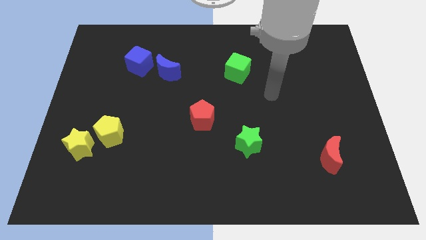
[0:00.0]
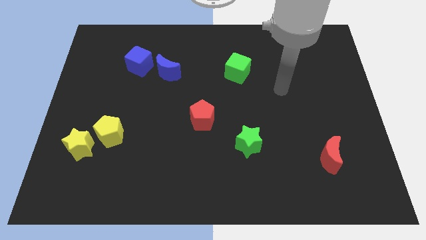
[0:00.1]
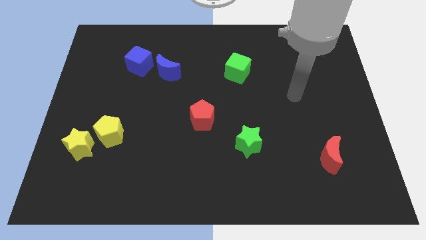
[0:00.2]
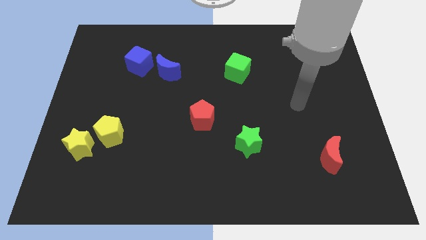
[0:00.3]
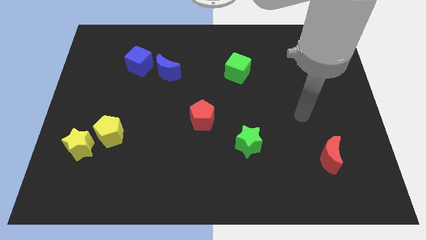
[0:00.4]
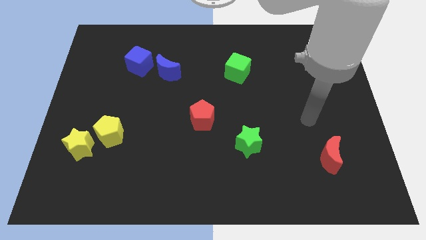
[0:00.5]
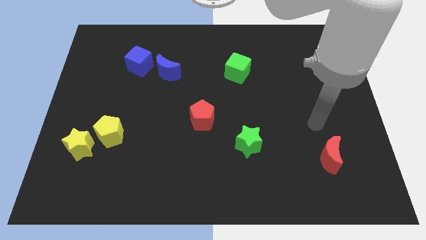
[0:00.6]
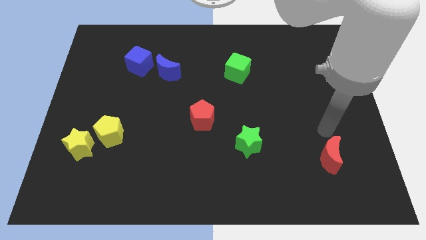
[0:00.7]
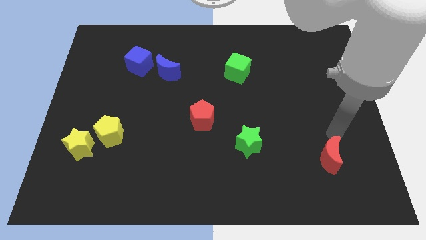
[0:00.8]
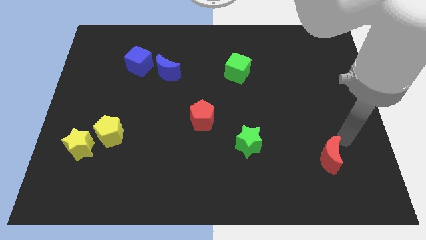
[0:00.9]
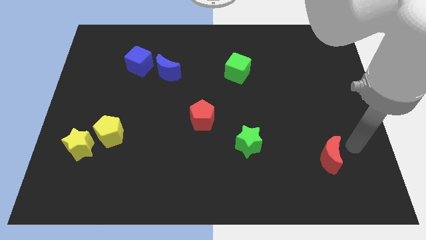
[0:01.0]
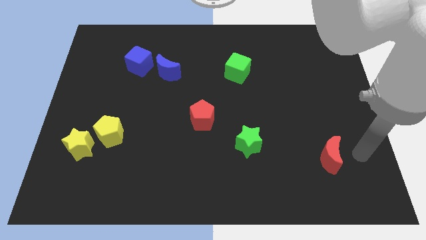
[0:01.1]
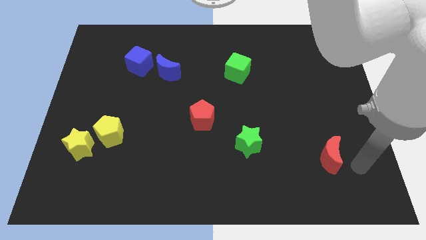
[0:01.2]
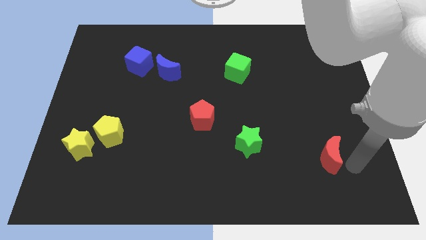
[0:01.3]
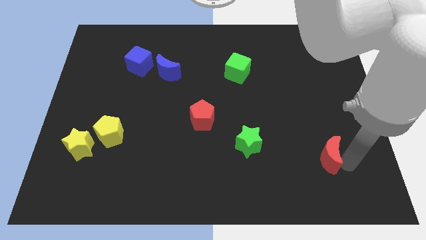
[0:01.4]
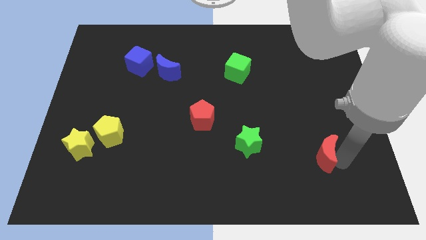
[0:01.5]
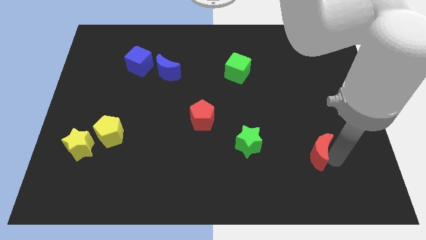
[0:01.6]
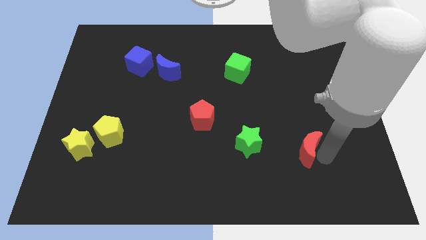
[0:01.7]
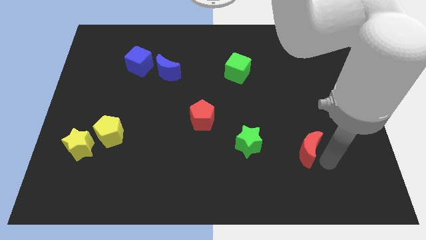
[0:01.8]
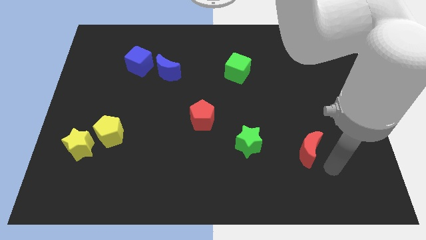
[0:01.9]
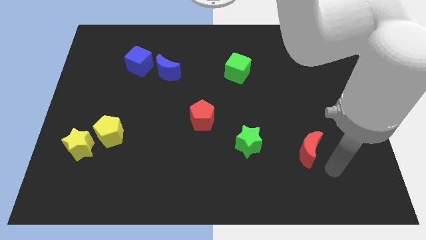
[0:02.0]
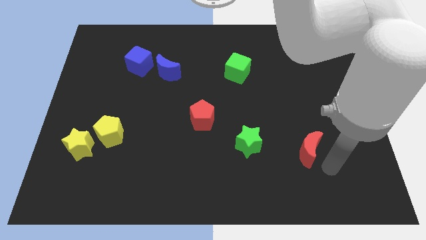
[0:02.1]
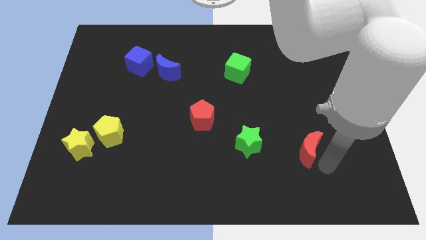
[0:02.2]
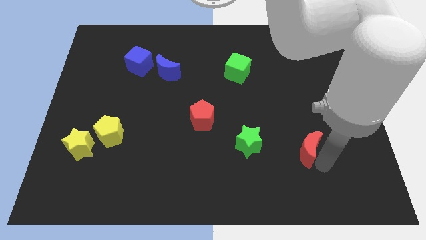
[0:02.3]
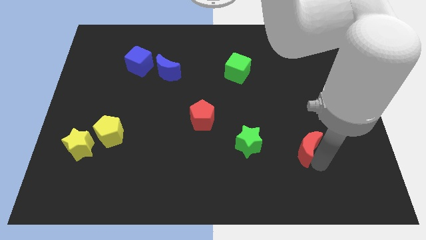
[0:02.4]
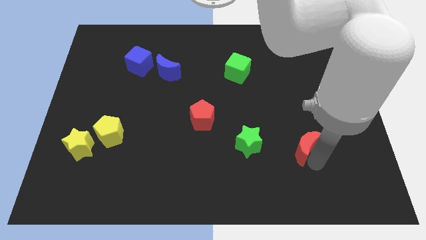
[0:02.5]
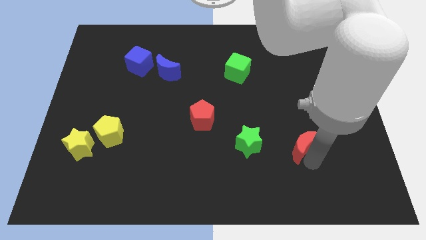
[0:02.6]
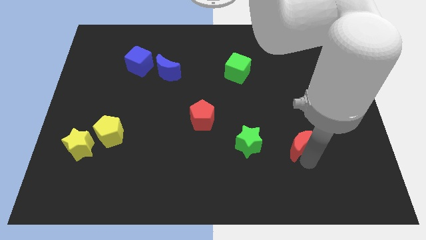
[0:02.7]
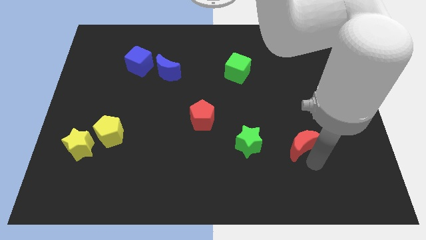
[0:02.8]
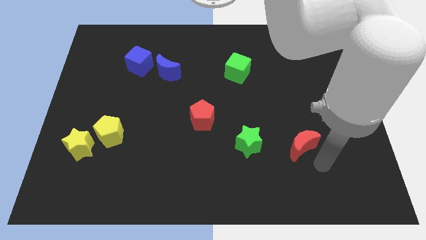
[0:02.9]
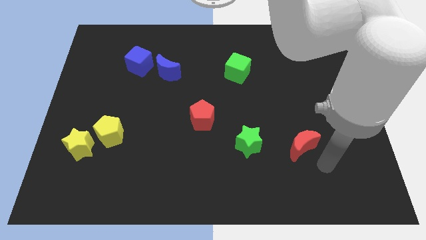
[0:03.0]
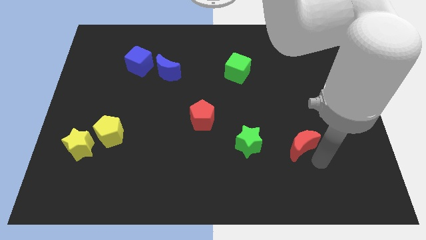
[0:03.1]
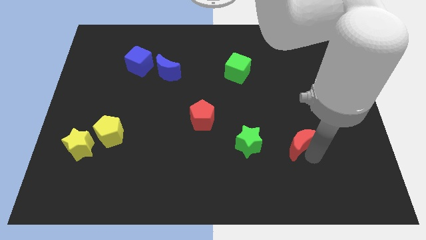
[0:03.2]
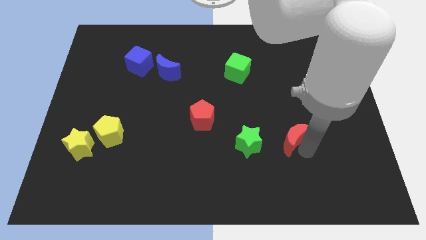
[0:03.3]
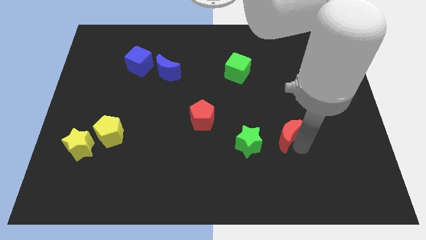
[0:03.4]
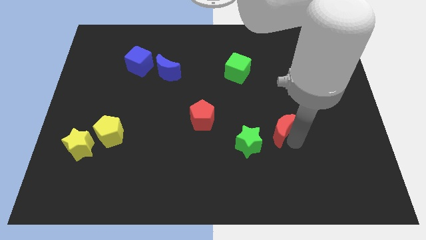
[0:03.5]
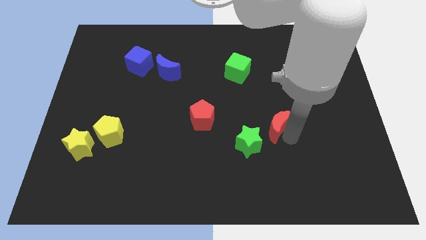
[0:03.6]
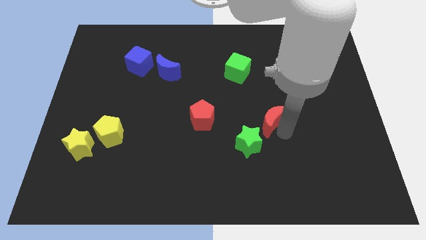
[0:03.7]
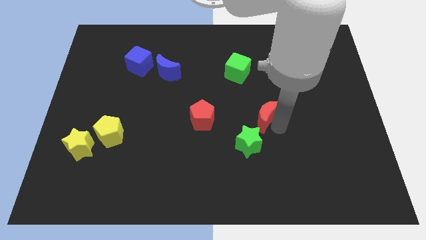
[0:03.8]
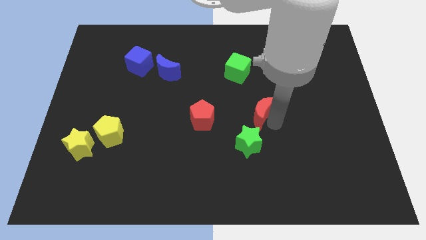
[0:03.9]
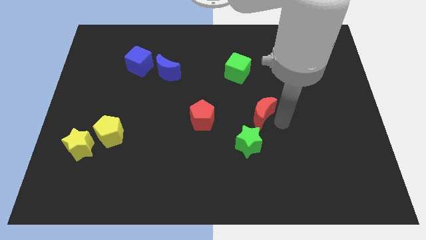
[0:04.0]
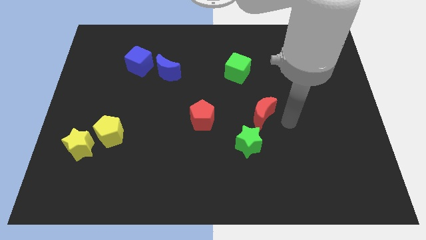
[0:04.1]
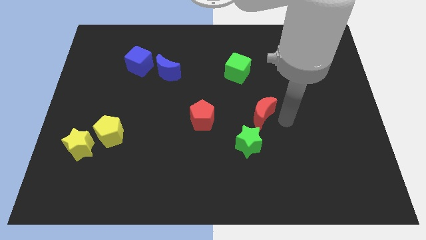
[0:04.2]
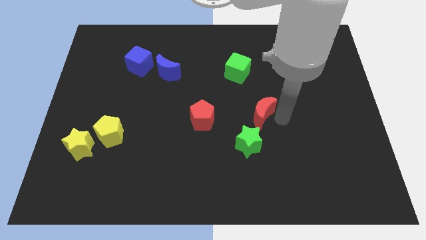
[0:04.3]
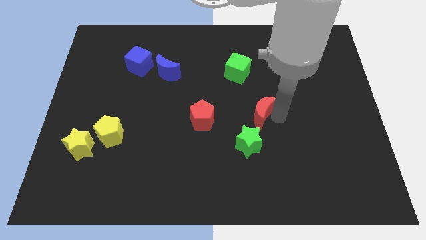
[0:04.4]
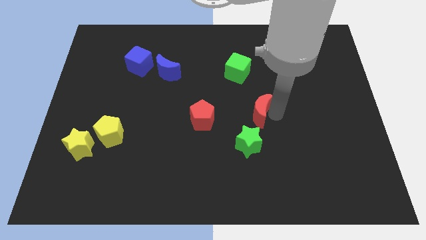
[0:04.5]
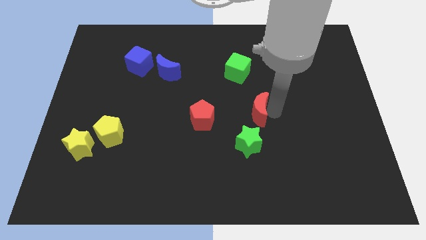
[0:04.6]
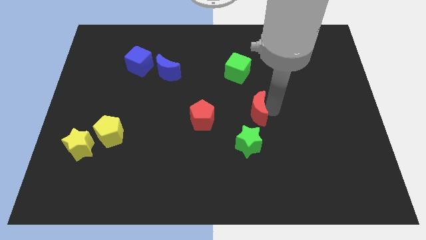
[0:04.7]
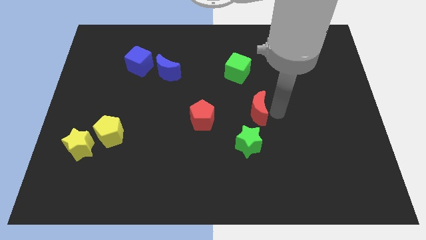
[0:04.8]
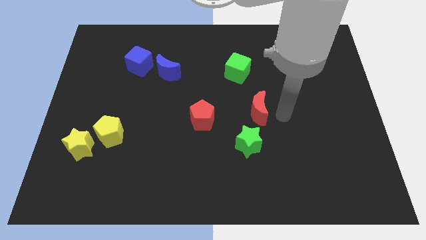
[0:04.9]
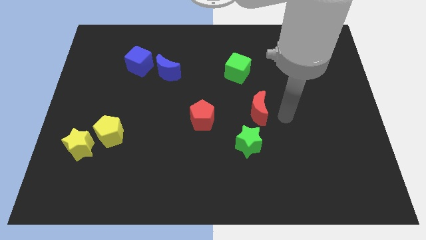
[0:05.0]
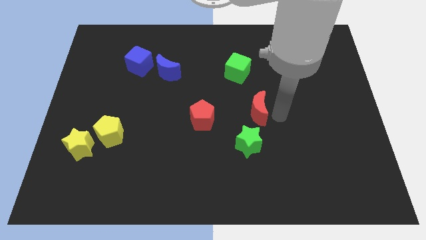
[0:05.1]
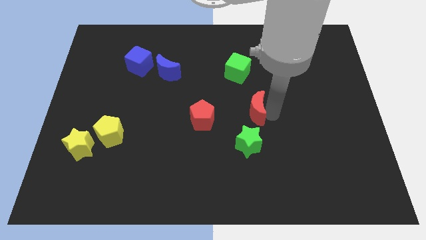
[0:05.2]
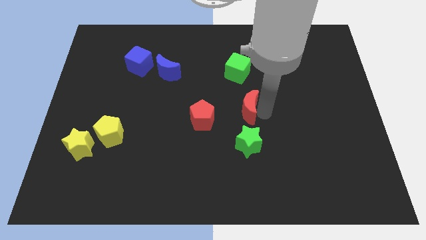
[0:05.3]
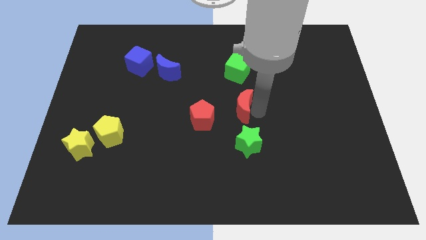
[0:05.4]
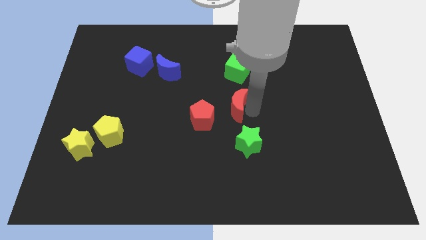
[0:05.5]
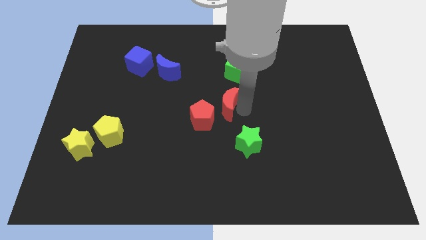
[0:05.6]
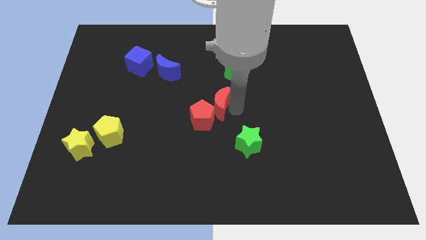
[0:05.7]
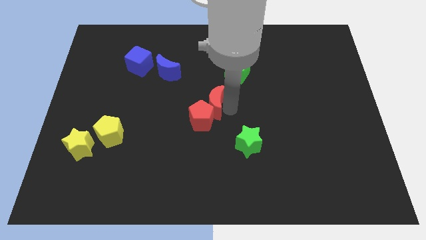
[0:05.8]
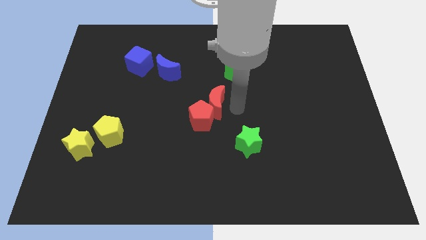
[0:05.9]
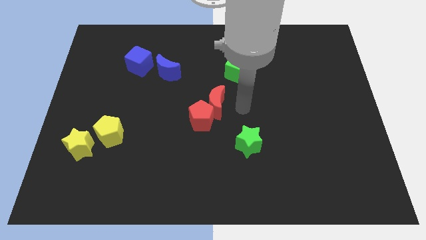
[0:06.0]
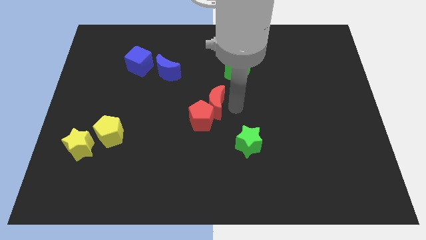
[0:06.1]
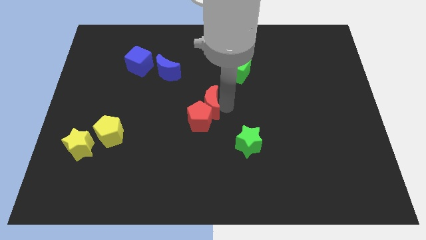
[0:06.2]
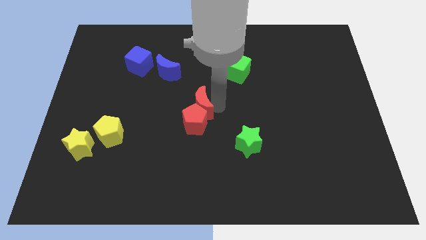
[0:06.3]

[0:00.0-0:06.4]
push the red moon to the top left side of the red pentagon
